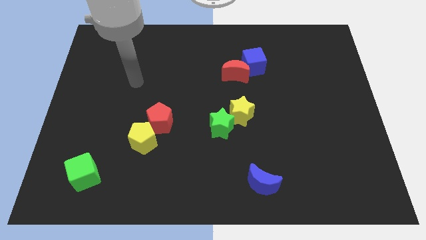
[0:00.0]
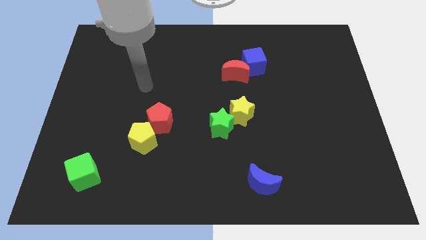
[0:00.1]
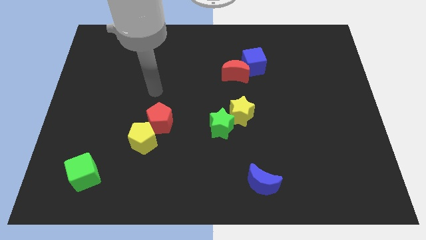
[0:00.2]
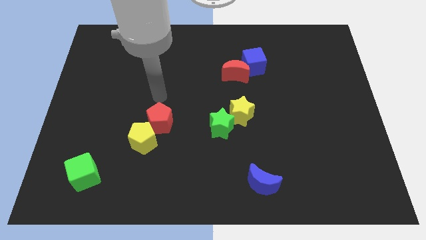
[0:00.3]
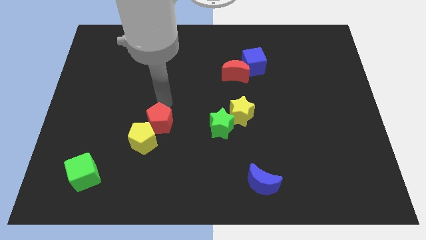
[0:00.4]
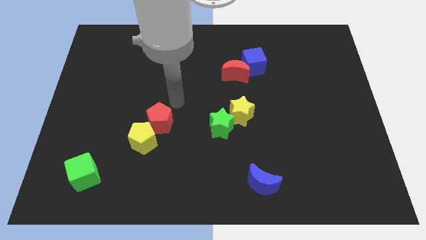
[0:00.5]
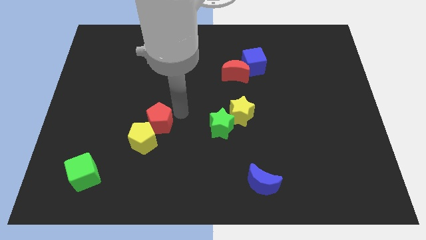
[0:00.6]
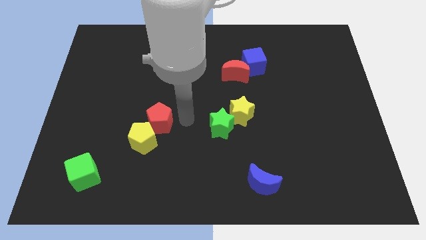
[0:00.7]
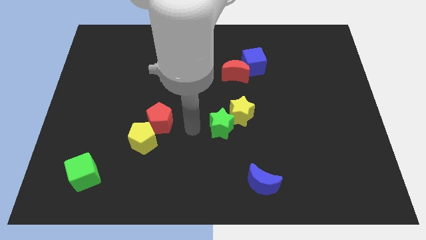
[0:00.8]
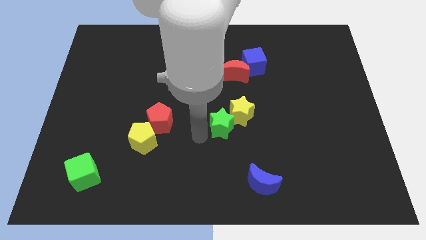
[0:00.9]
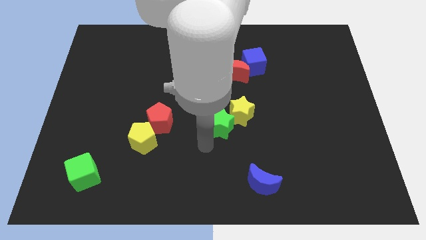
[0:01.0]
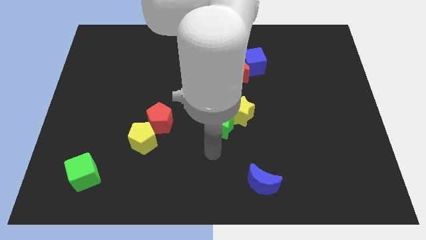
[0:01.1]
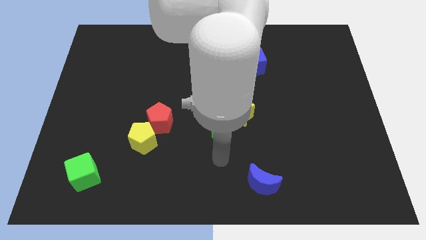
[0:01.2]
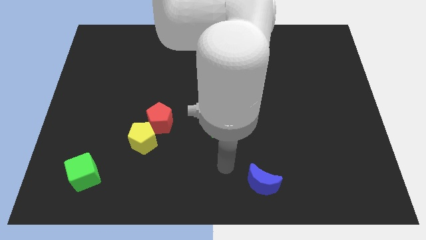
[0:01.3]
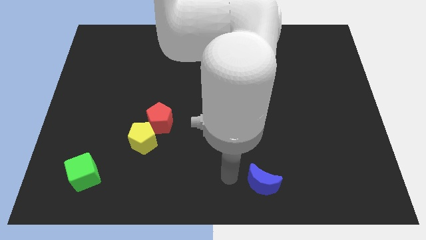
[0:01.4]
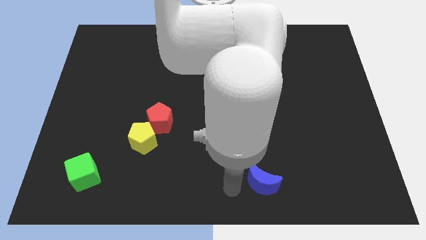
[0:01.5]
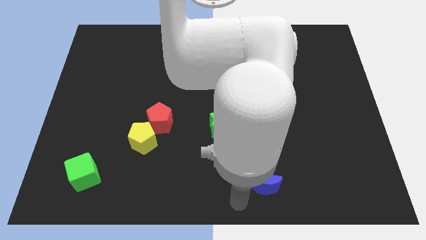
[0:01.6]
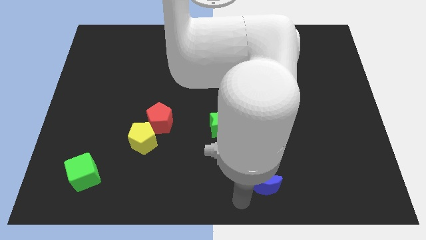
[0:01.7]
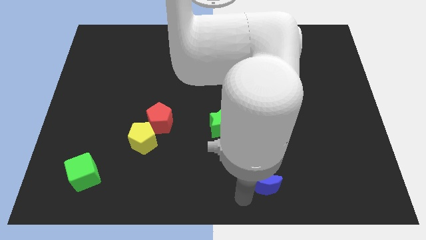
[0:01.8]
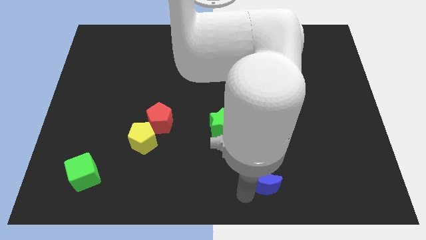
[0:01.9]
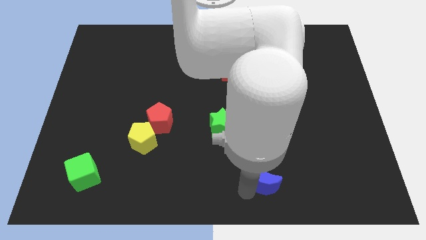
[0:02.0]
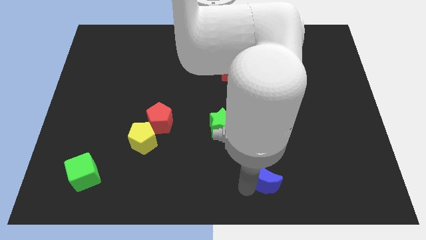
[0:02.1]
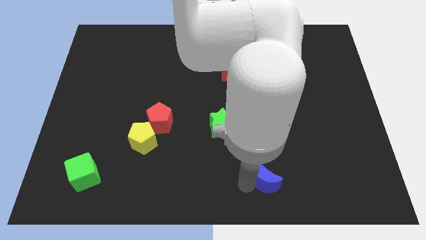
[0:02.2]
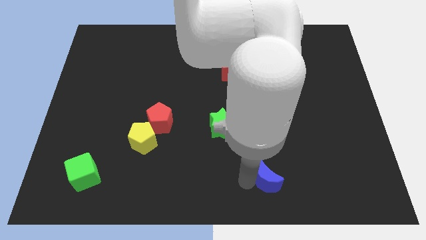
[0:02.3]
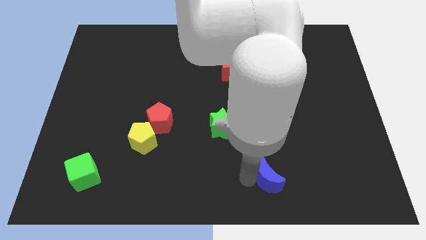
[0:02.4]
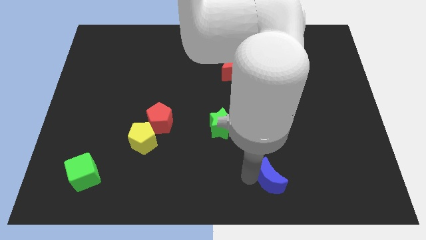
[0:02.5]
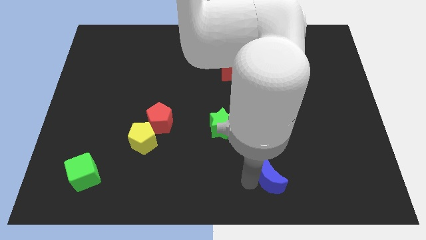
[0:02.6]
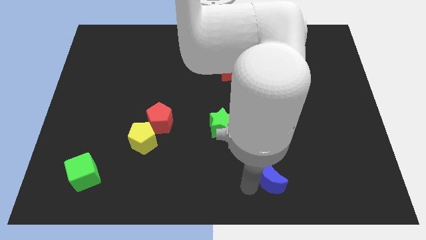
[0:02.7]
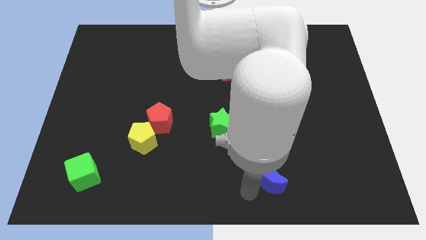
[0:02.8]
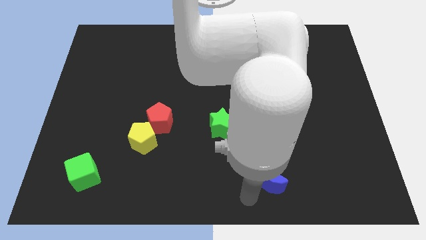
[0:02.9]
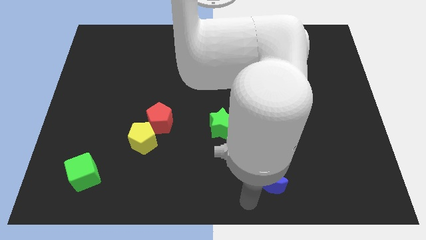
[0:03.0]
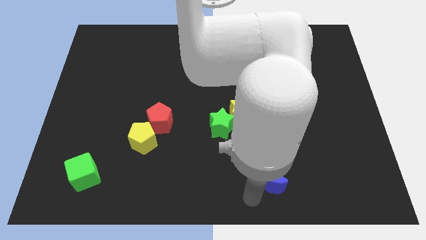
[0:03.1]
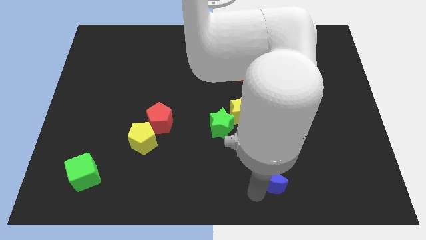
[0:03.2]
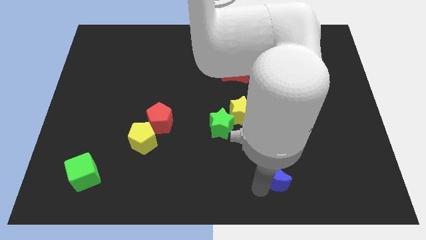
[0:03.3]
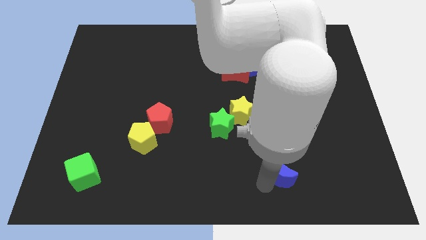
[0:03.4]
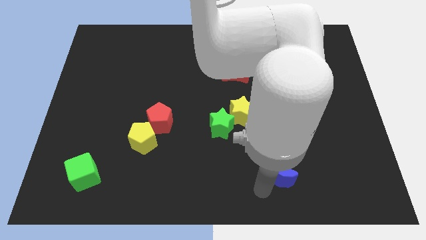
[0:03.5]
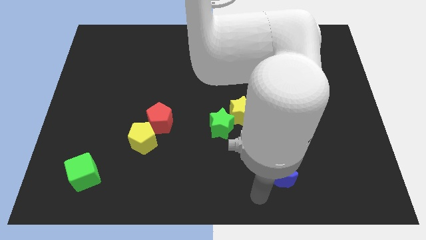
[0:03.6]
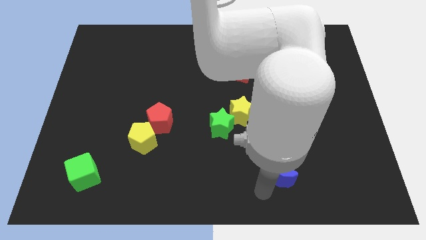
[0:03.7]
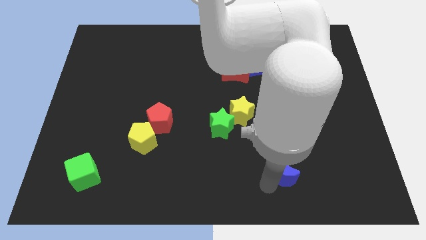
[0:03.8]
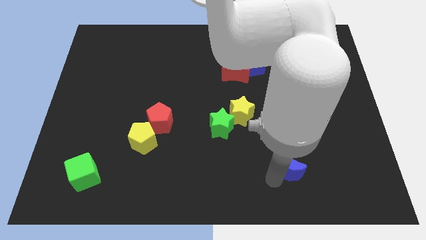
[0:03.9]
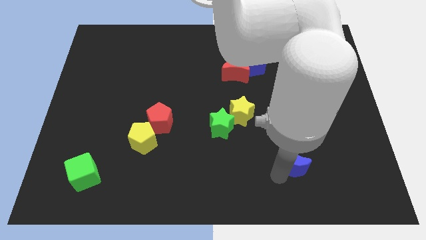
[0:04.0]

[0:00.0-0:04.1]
slide the blue moon somewhat upwards and right diagonally

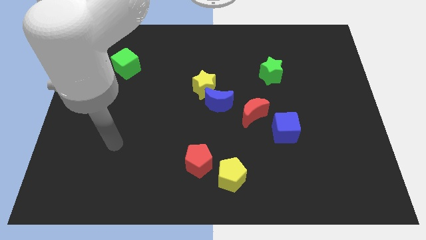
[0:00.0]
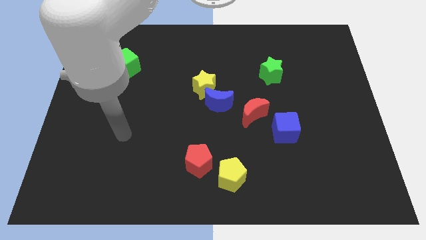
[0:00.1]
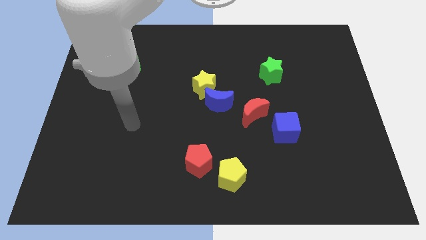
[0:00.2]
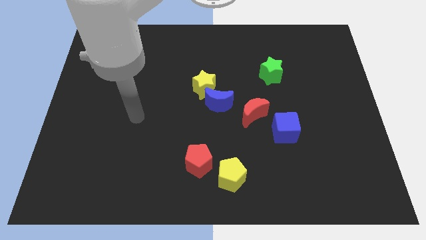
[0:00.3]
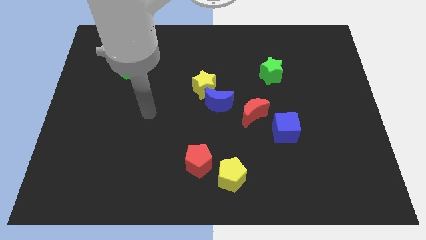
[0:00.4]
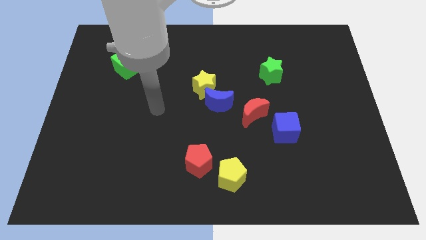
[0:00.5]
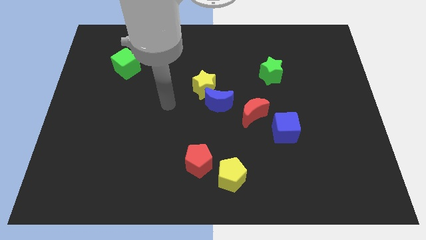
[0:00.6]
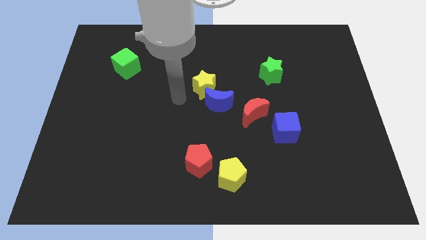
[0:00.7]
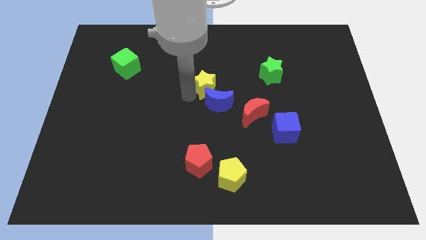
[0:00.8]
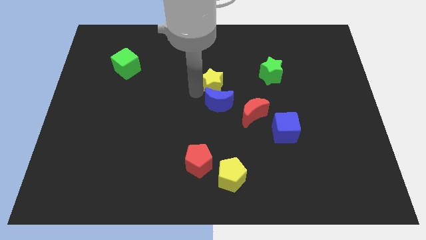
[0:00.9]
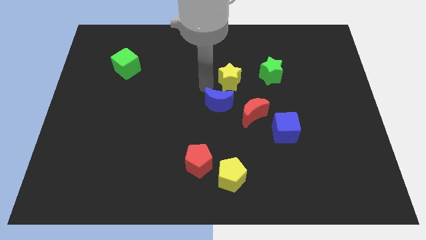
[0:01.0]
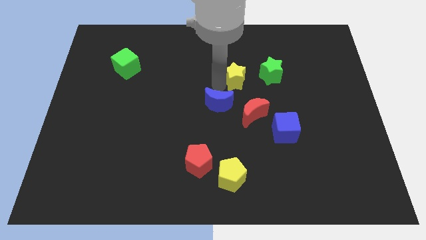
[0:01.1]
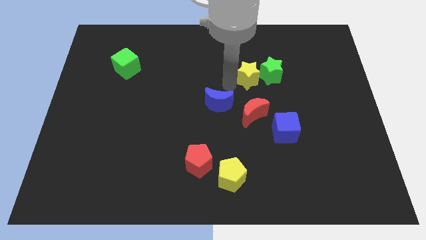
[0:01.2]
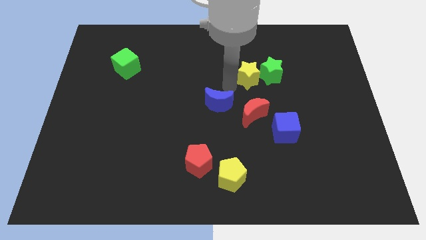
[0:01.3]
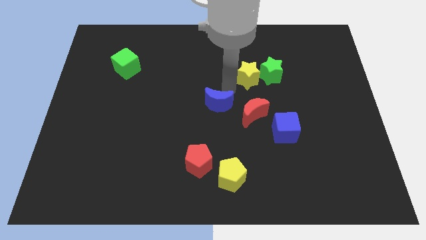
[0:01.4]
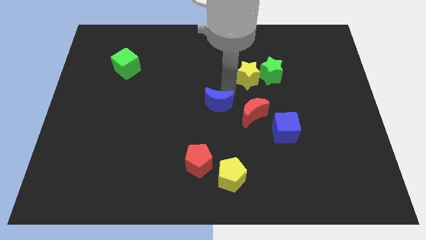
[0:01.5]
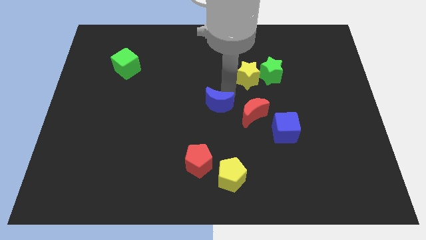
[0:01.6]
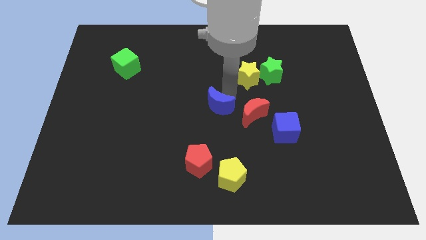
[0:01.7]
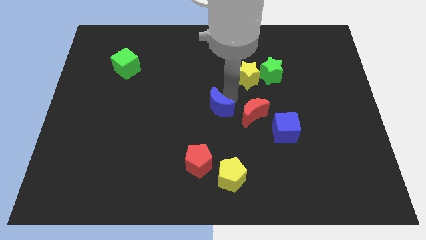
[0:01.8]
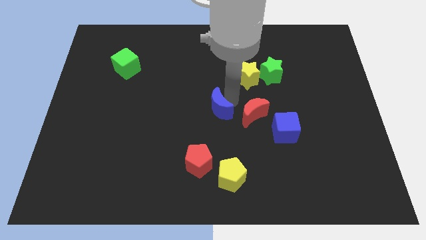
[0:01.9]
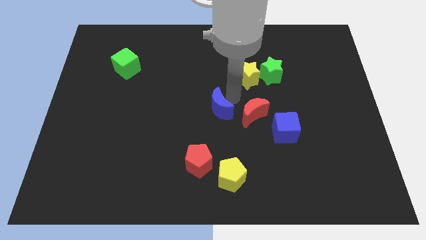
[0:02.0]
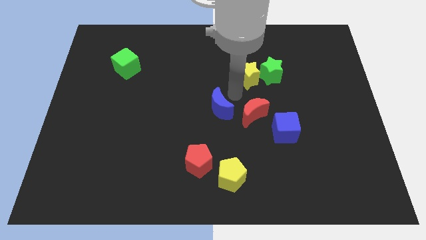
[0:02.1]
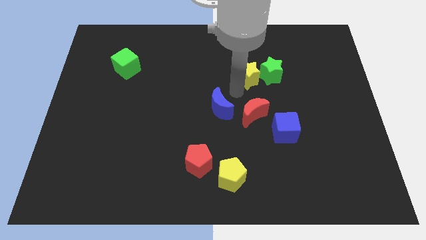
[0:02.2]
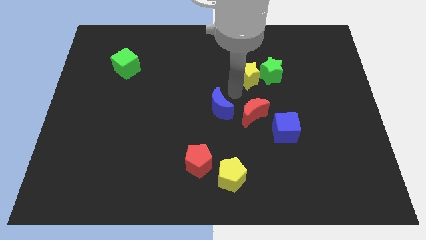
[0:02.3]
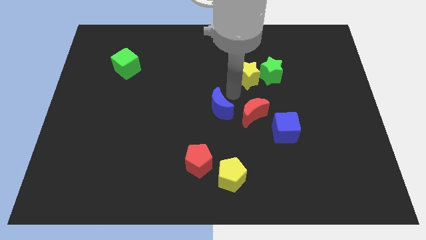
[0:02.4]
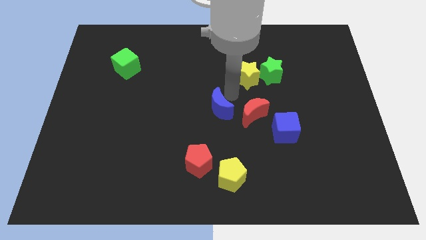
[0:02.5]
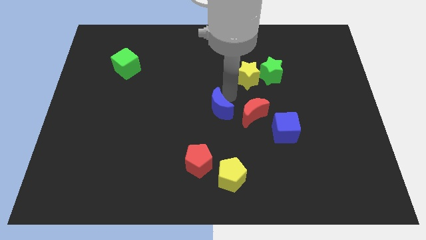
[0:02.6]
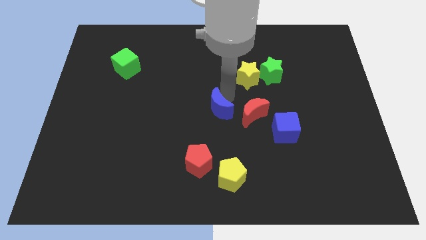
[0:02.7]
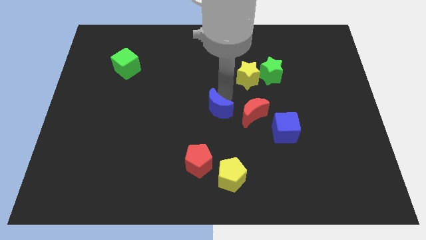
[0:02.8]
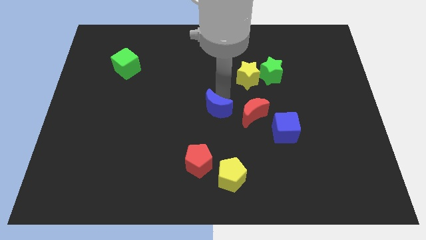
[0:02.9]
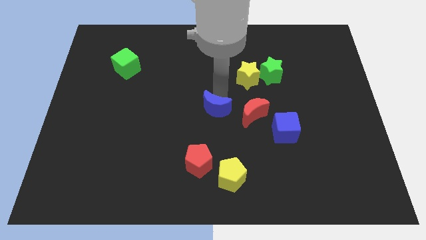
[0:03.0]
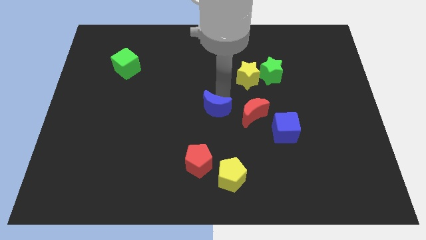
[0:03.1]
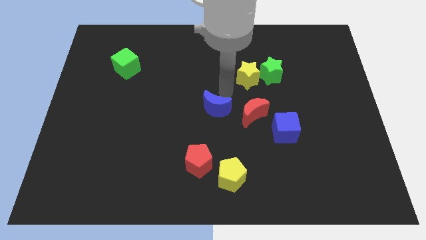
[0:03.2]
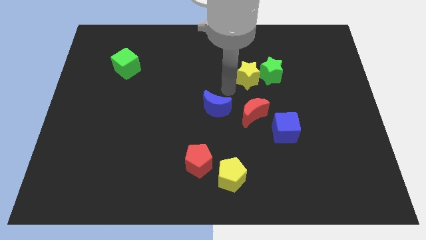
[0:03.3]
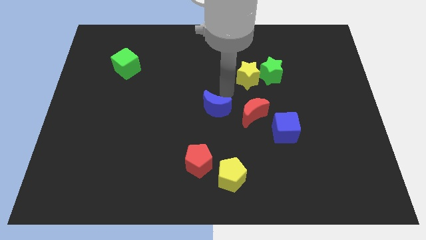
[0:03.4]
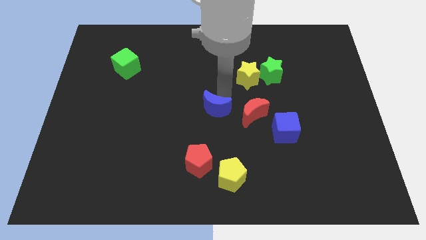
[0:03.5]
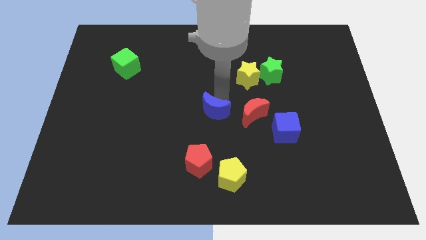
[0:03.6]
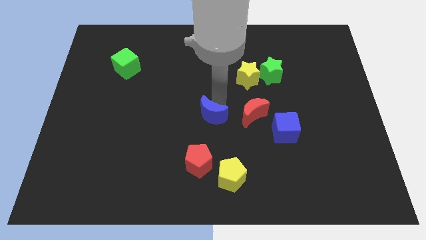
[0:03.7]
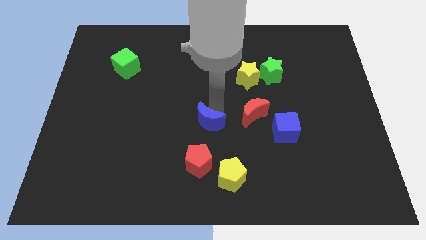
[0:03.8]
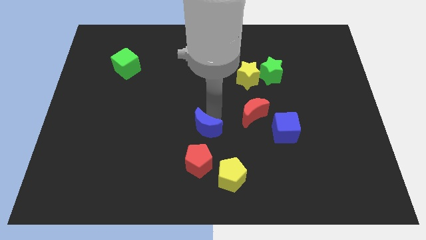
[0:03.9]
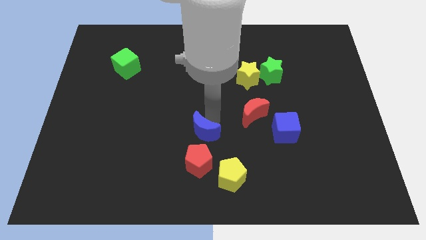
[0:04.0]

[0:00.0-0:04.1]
slightly move the blue moon down and then left
